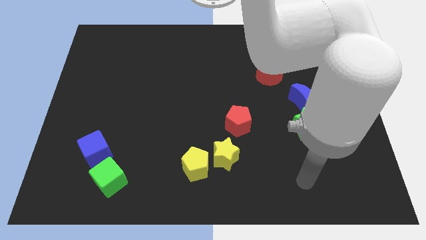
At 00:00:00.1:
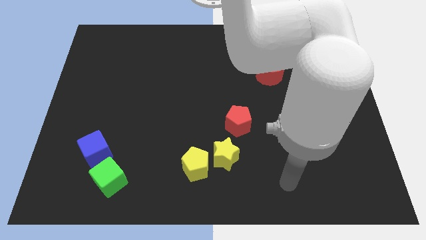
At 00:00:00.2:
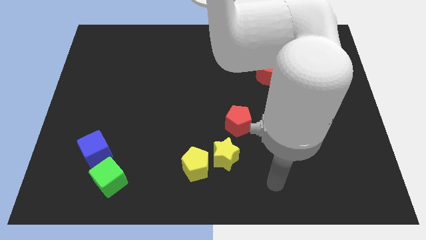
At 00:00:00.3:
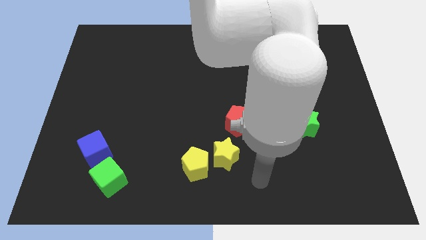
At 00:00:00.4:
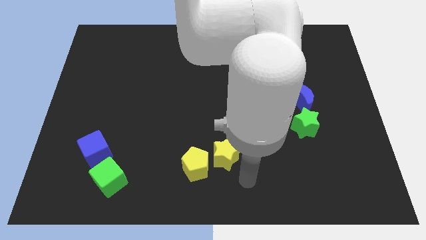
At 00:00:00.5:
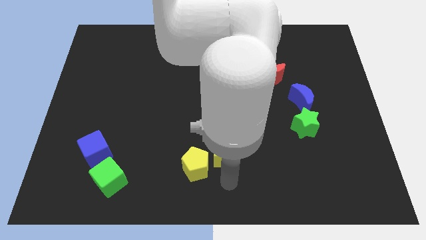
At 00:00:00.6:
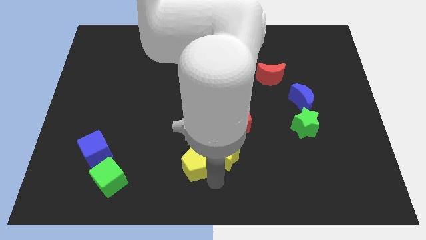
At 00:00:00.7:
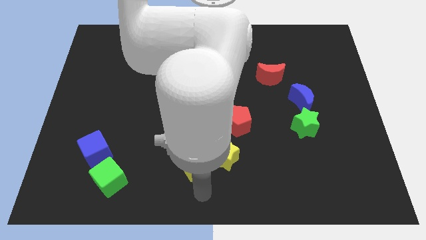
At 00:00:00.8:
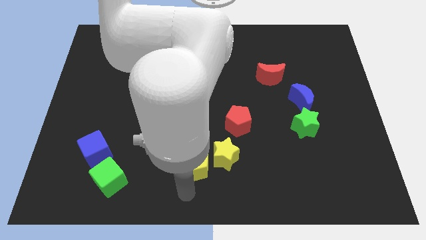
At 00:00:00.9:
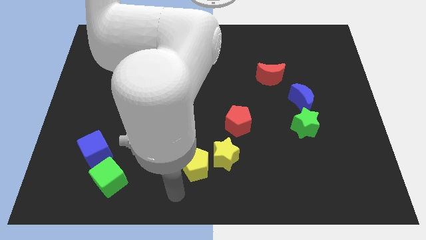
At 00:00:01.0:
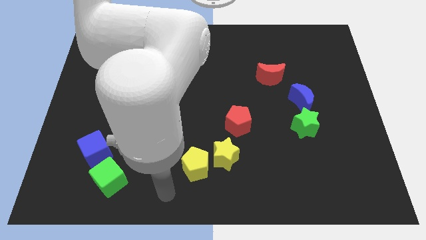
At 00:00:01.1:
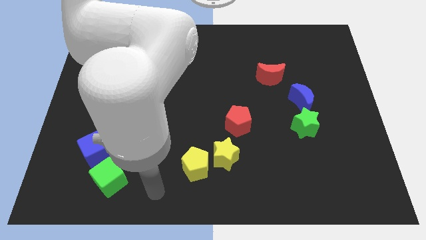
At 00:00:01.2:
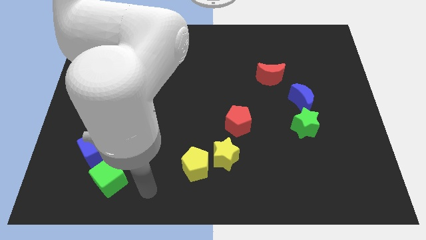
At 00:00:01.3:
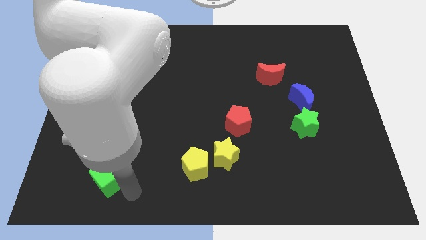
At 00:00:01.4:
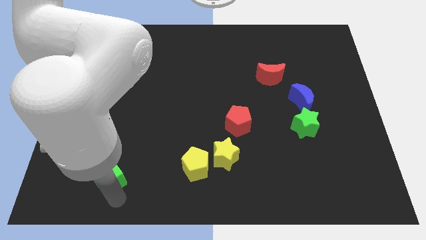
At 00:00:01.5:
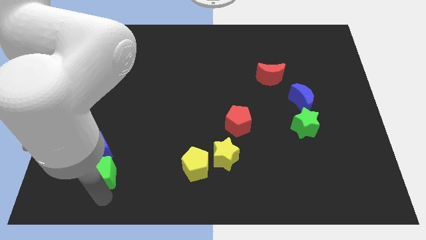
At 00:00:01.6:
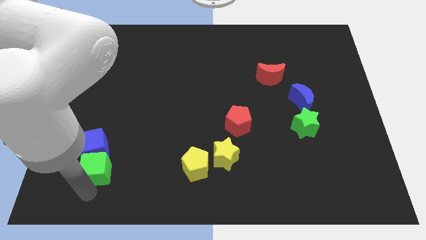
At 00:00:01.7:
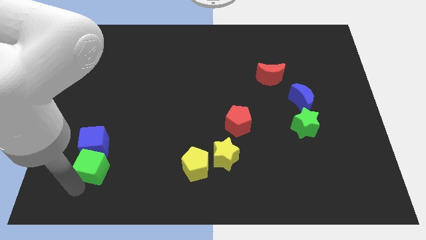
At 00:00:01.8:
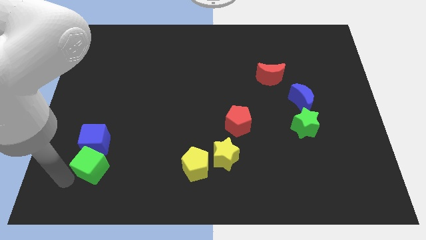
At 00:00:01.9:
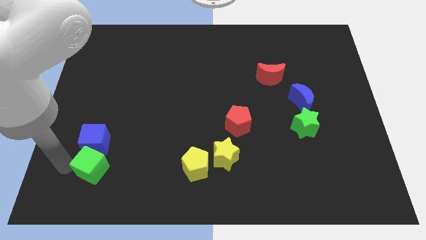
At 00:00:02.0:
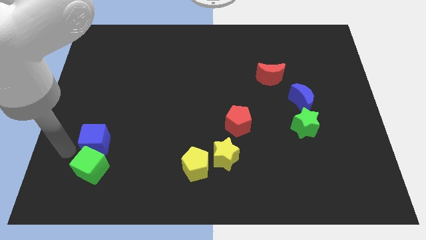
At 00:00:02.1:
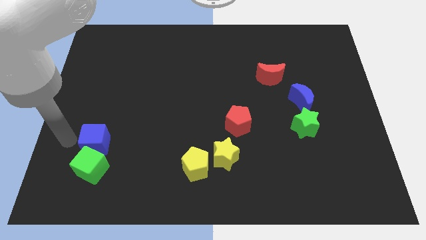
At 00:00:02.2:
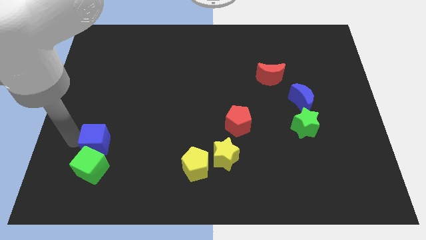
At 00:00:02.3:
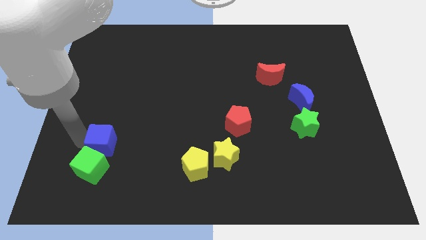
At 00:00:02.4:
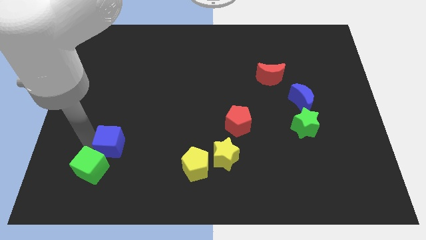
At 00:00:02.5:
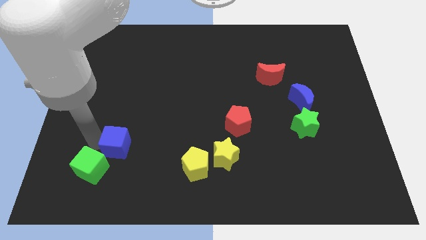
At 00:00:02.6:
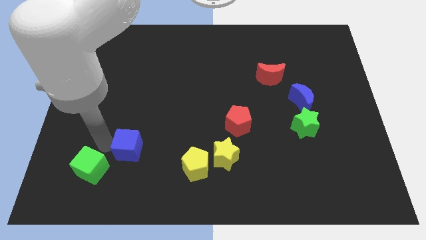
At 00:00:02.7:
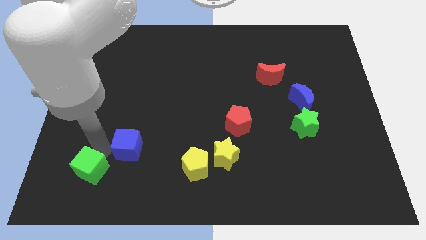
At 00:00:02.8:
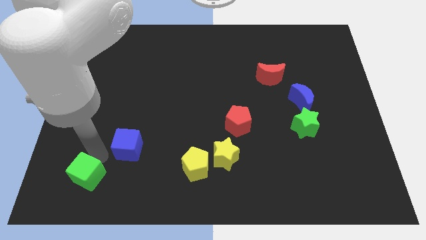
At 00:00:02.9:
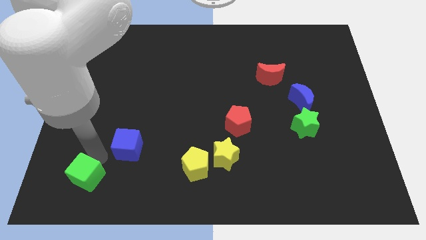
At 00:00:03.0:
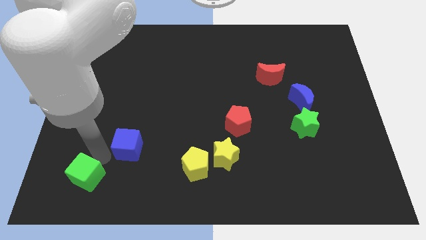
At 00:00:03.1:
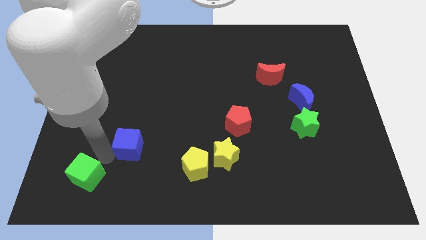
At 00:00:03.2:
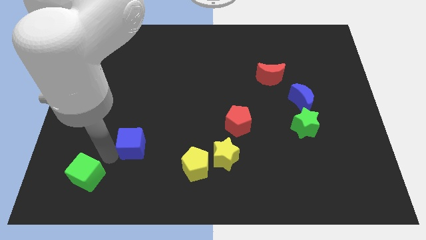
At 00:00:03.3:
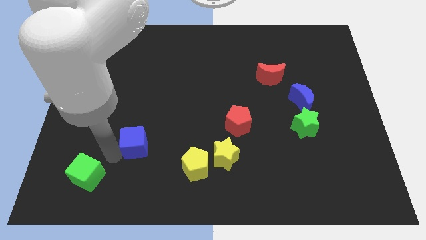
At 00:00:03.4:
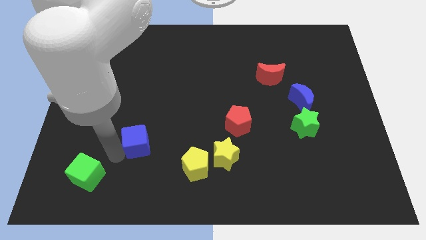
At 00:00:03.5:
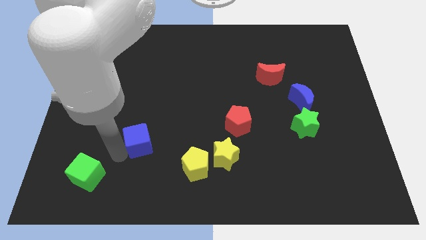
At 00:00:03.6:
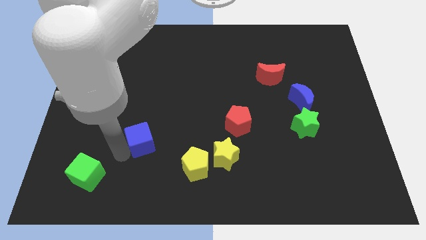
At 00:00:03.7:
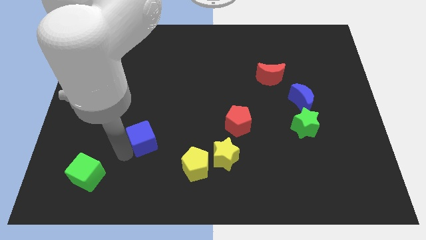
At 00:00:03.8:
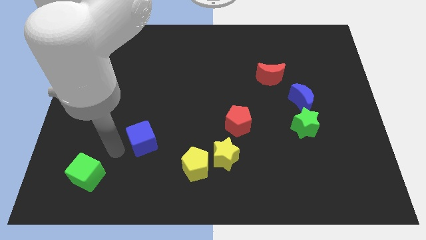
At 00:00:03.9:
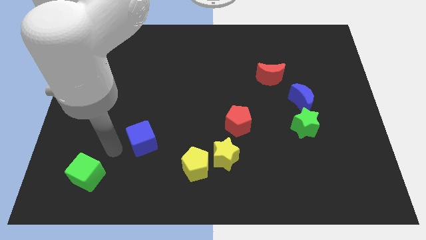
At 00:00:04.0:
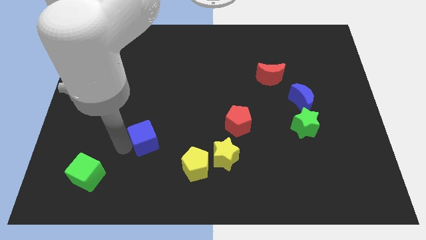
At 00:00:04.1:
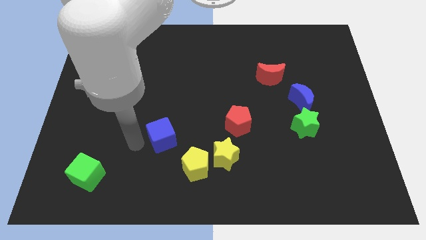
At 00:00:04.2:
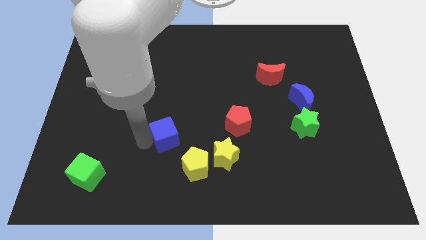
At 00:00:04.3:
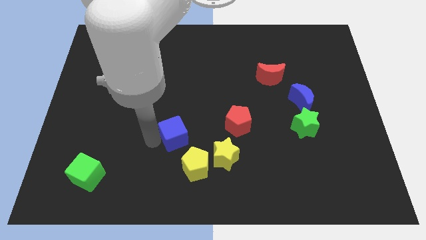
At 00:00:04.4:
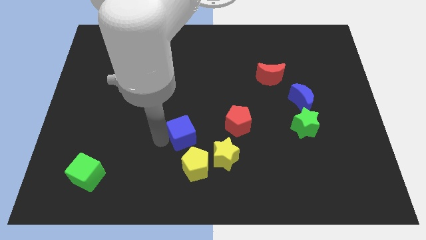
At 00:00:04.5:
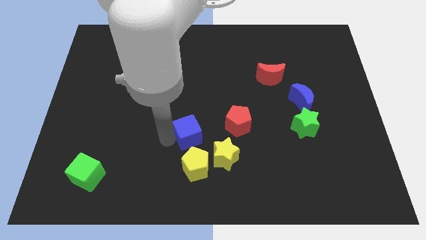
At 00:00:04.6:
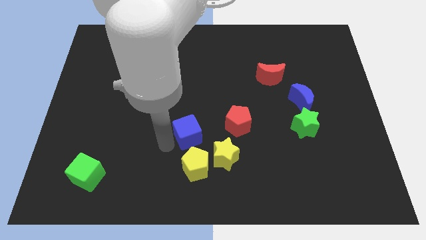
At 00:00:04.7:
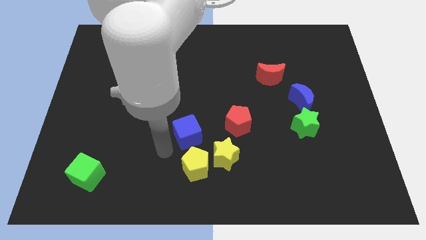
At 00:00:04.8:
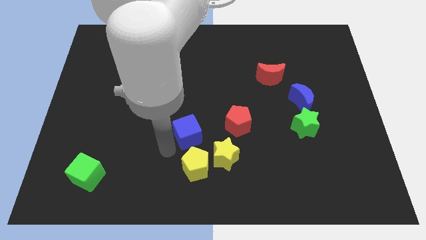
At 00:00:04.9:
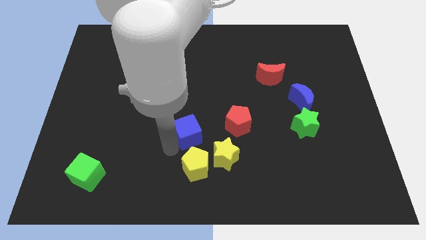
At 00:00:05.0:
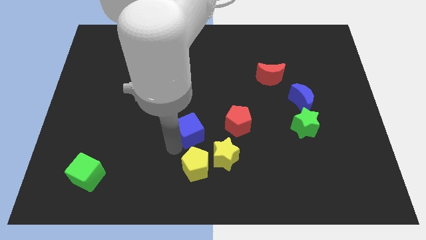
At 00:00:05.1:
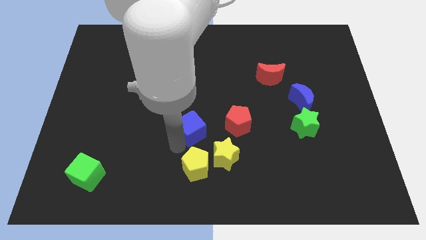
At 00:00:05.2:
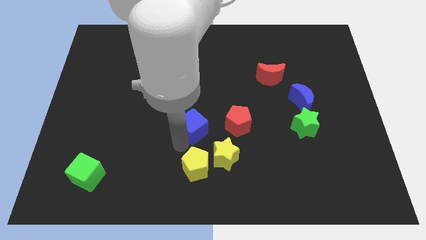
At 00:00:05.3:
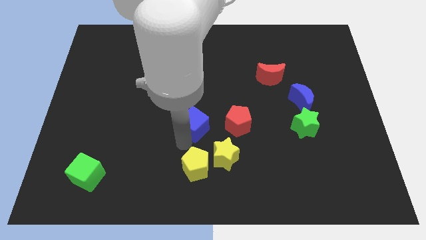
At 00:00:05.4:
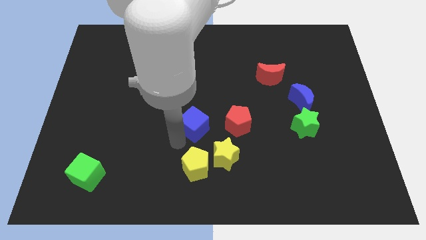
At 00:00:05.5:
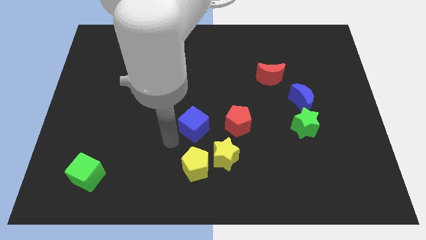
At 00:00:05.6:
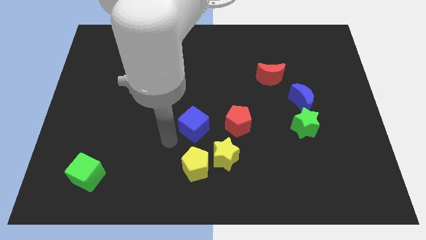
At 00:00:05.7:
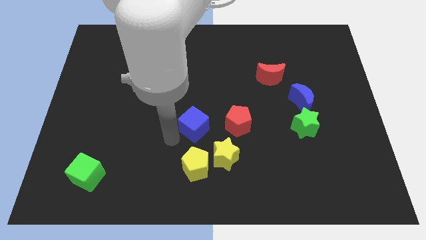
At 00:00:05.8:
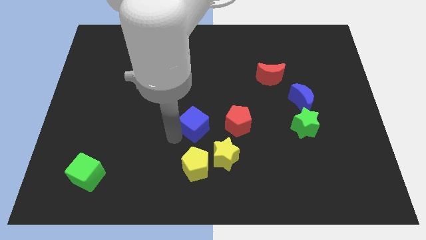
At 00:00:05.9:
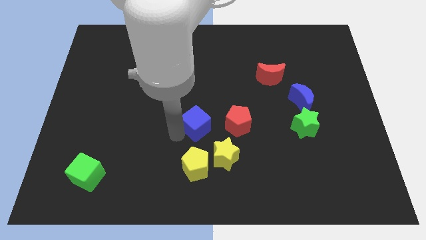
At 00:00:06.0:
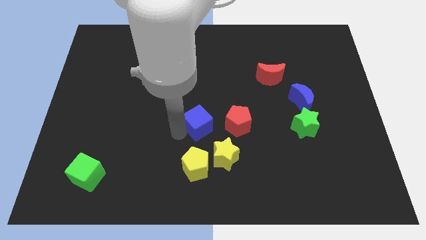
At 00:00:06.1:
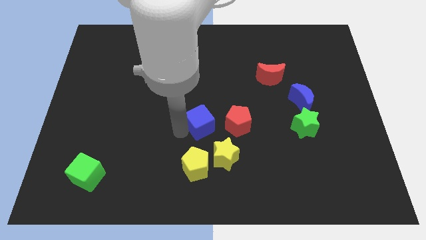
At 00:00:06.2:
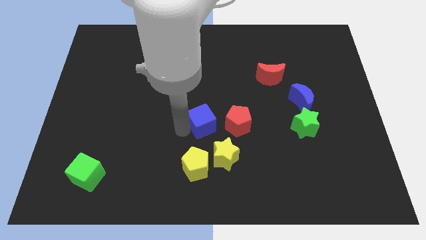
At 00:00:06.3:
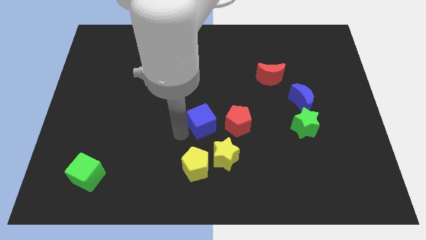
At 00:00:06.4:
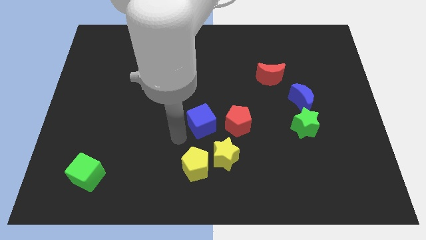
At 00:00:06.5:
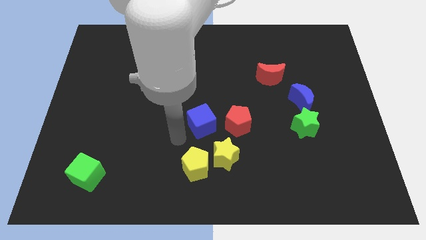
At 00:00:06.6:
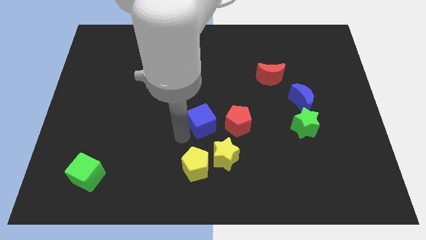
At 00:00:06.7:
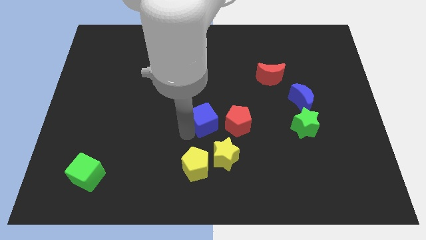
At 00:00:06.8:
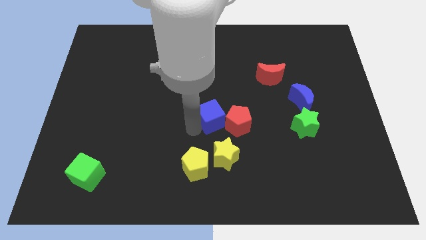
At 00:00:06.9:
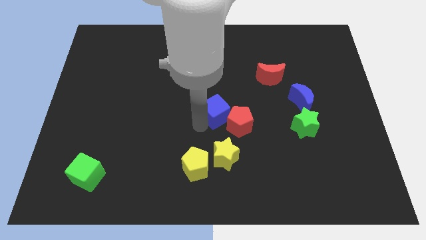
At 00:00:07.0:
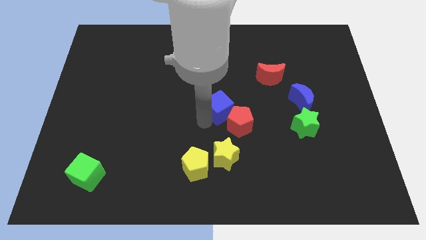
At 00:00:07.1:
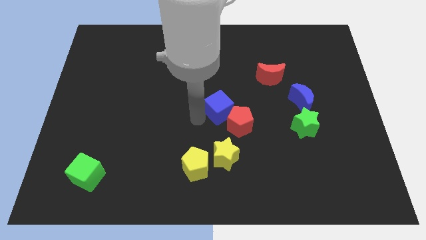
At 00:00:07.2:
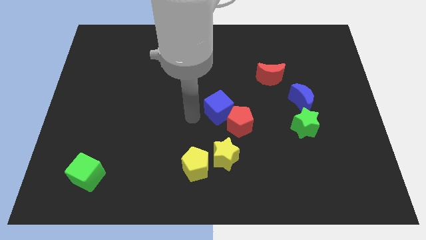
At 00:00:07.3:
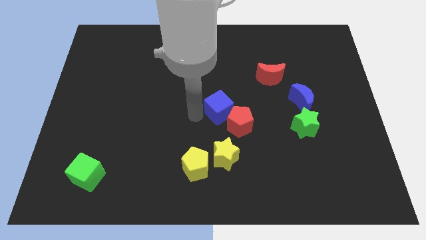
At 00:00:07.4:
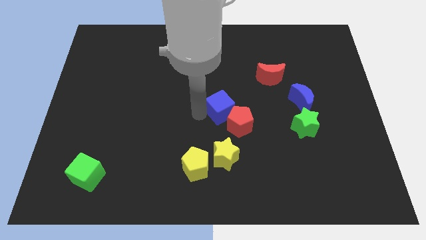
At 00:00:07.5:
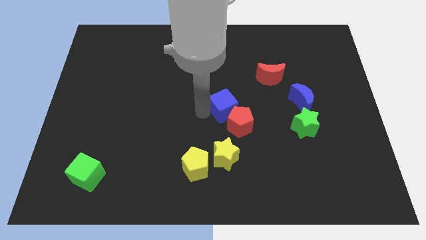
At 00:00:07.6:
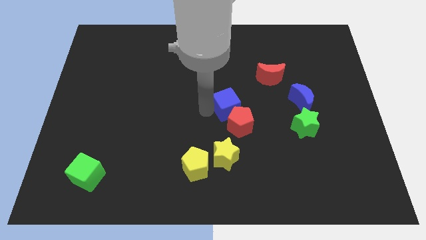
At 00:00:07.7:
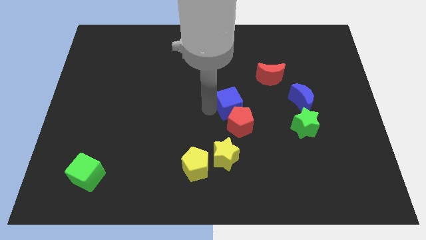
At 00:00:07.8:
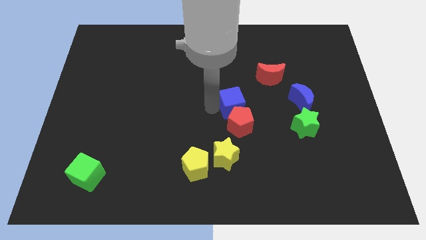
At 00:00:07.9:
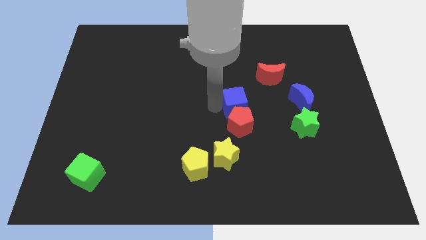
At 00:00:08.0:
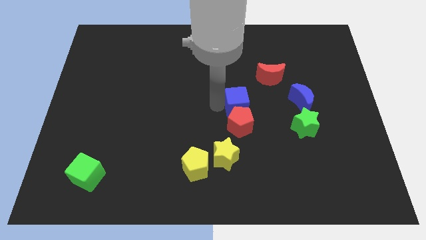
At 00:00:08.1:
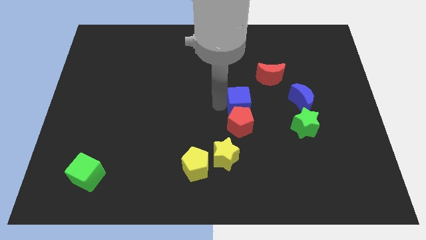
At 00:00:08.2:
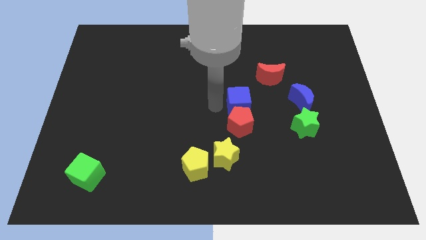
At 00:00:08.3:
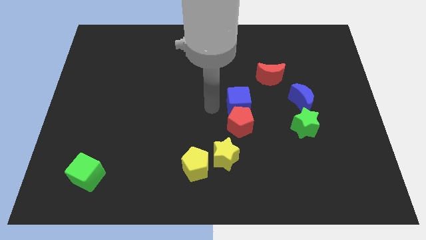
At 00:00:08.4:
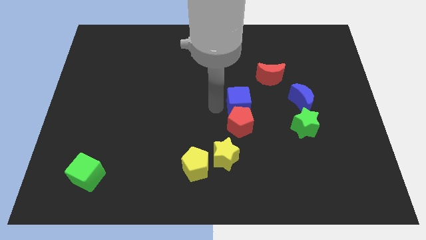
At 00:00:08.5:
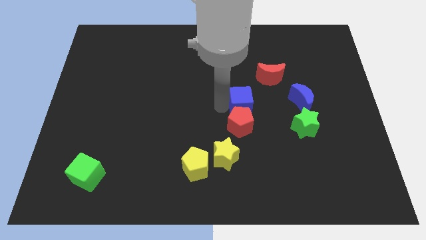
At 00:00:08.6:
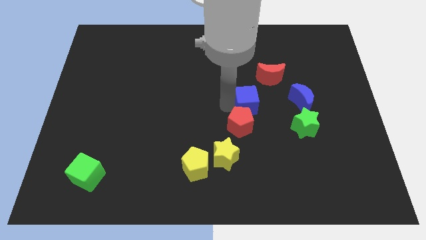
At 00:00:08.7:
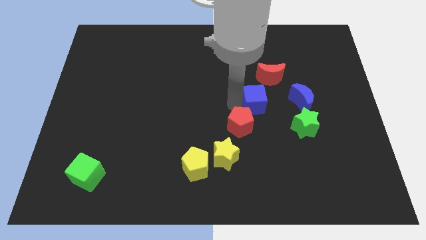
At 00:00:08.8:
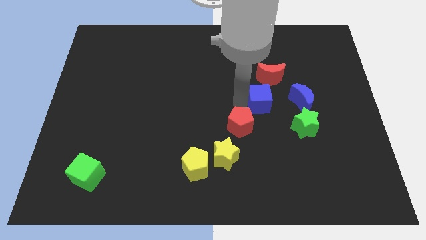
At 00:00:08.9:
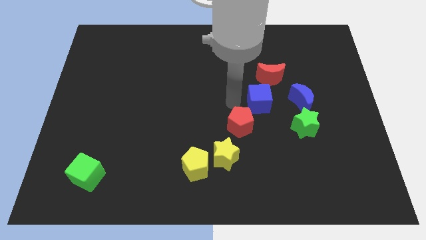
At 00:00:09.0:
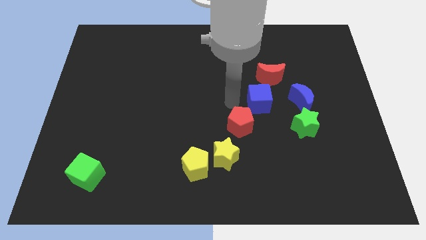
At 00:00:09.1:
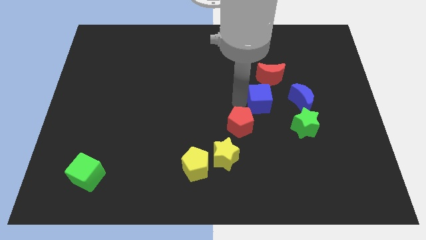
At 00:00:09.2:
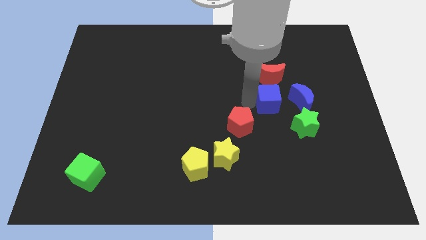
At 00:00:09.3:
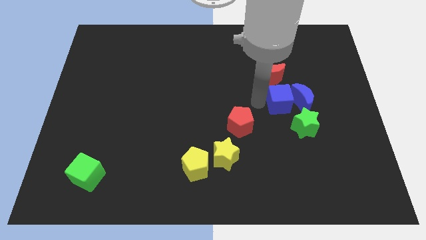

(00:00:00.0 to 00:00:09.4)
push the blue cube close to the blue moon
